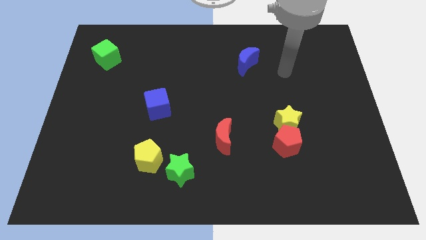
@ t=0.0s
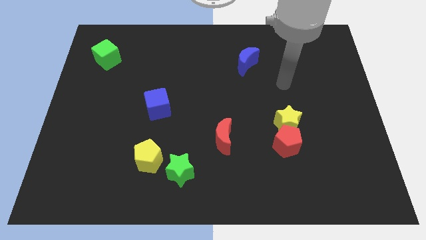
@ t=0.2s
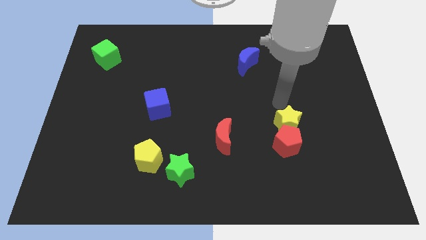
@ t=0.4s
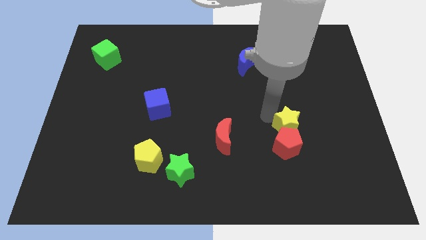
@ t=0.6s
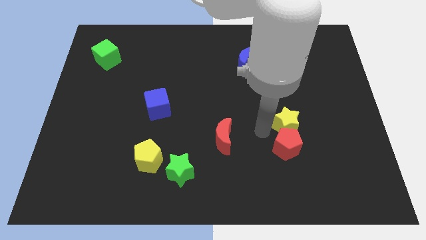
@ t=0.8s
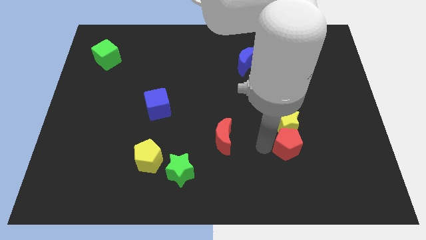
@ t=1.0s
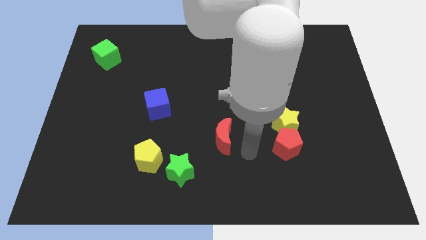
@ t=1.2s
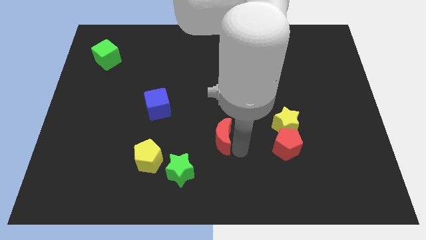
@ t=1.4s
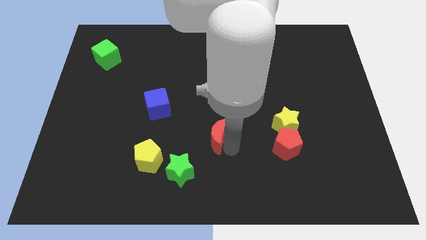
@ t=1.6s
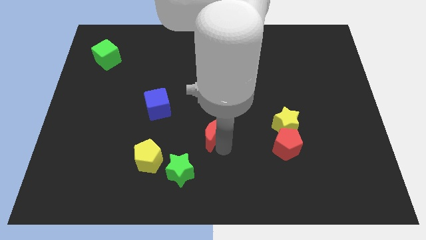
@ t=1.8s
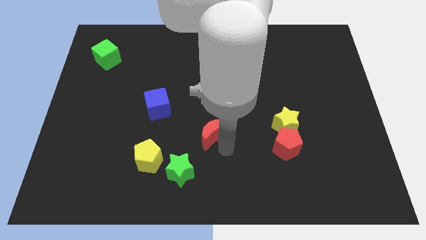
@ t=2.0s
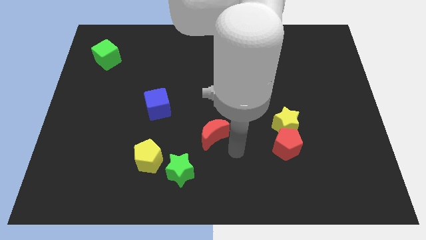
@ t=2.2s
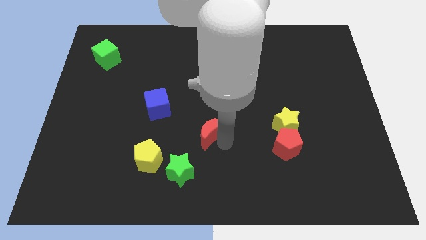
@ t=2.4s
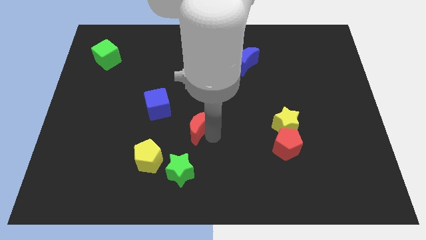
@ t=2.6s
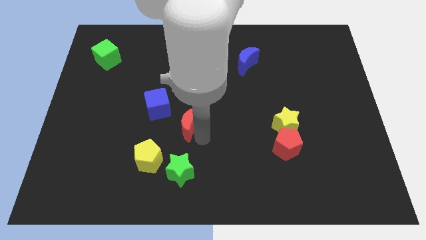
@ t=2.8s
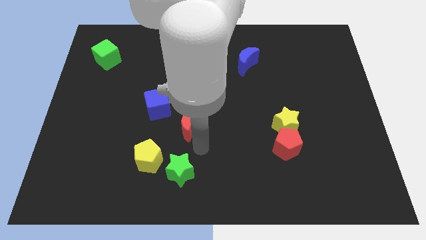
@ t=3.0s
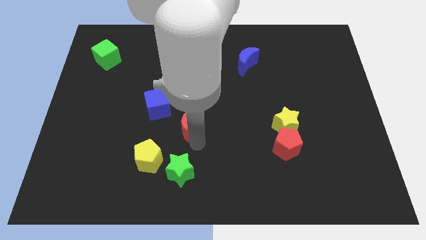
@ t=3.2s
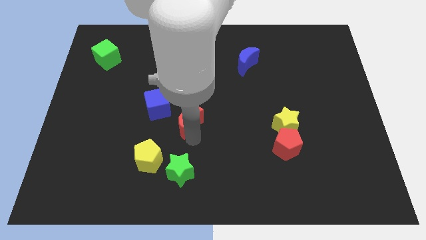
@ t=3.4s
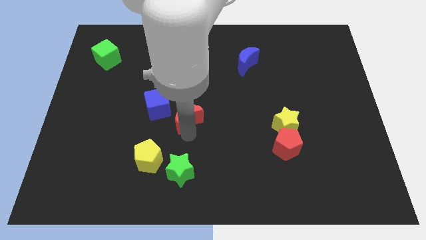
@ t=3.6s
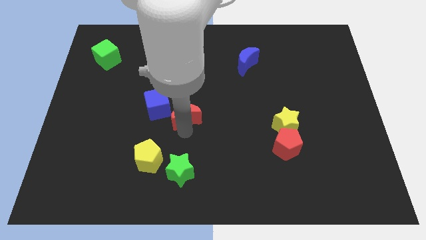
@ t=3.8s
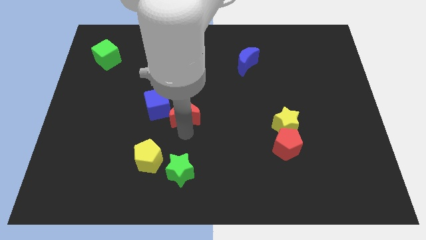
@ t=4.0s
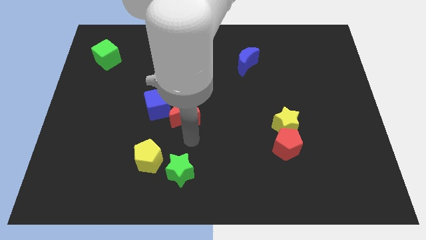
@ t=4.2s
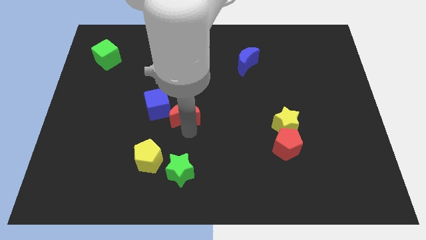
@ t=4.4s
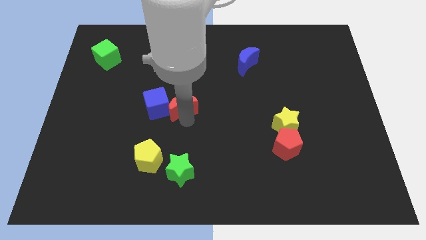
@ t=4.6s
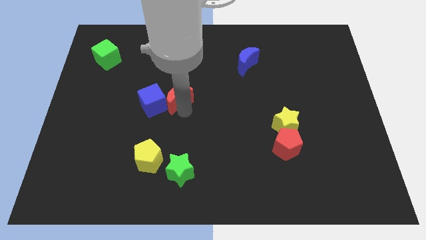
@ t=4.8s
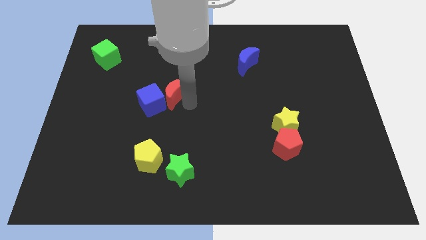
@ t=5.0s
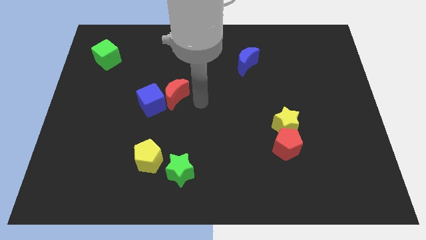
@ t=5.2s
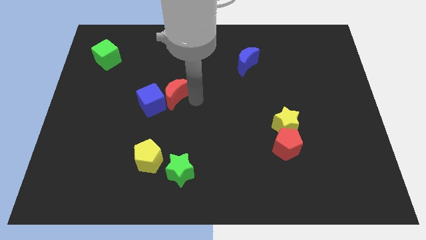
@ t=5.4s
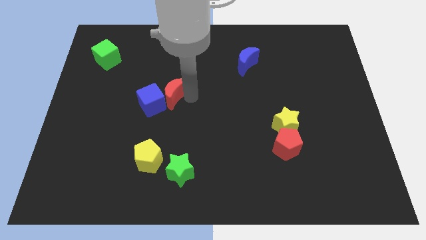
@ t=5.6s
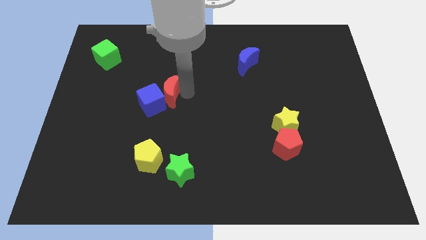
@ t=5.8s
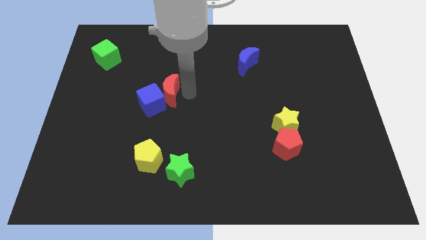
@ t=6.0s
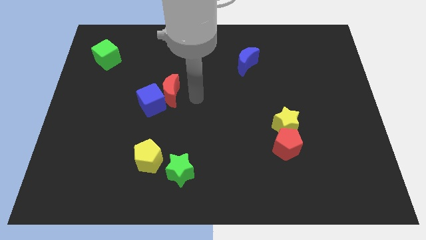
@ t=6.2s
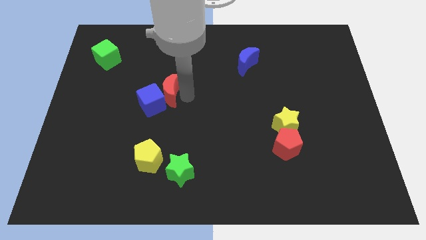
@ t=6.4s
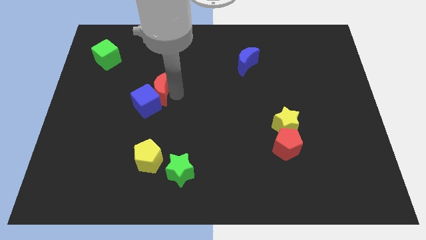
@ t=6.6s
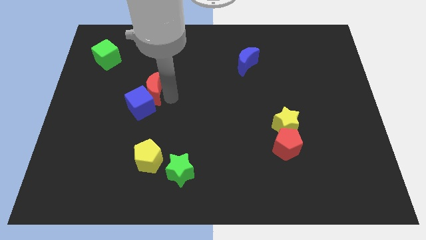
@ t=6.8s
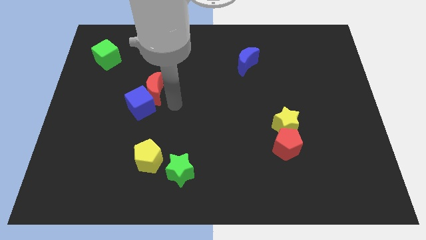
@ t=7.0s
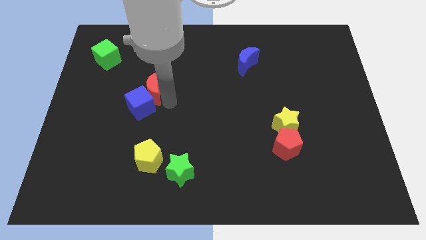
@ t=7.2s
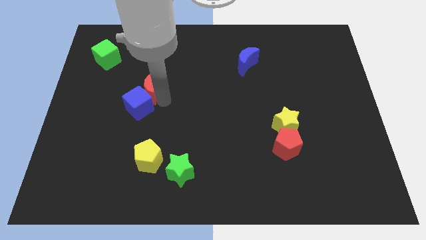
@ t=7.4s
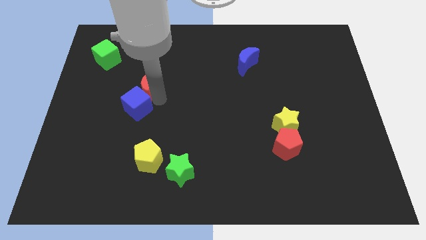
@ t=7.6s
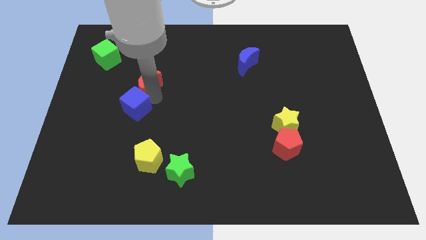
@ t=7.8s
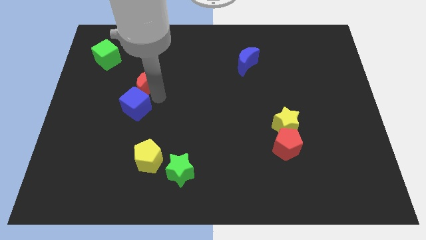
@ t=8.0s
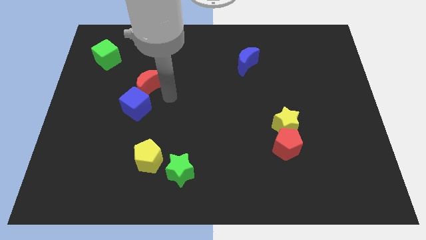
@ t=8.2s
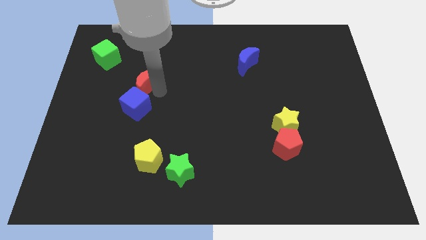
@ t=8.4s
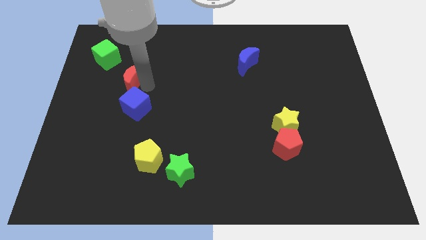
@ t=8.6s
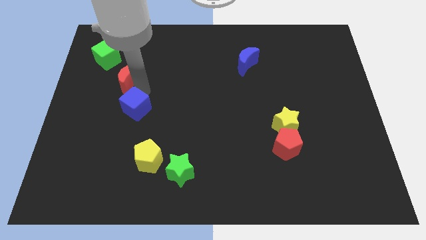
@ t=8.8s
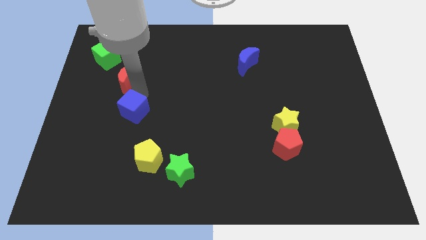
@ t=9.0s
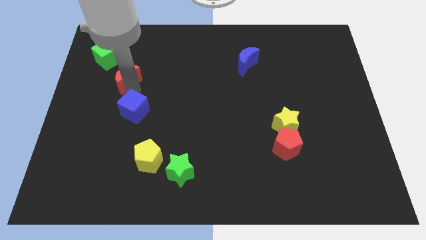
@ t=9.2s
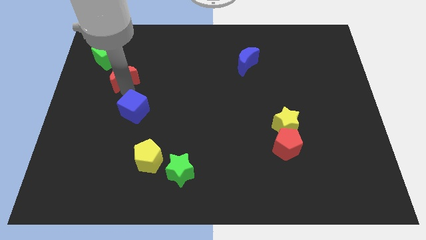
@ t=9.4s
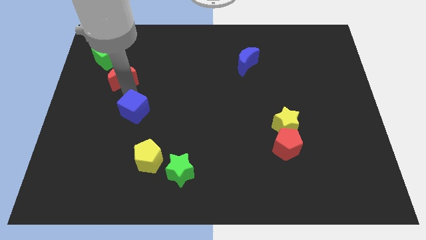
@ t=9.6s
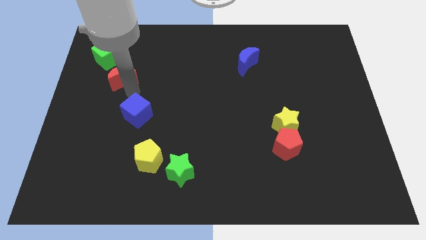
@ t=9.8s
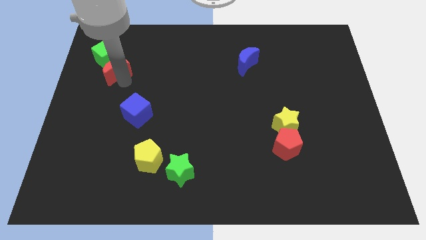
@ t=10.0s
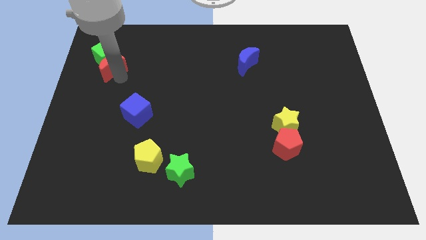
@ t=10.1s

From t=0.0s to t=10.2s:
move the red moon to the green cube

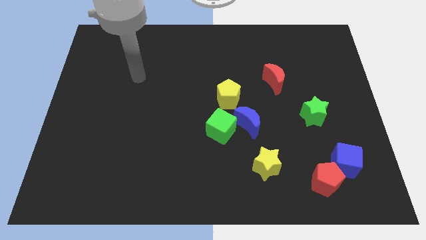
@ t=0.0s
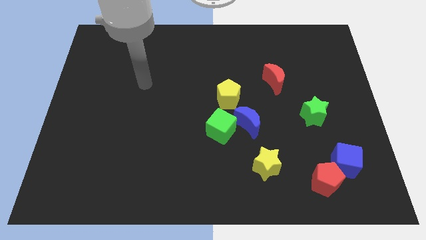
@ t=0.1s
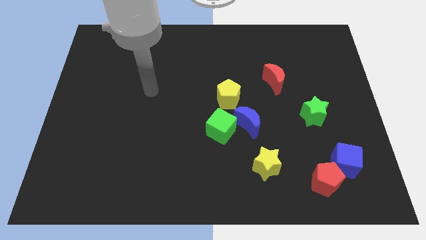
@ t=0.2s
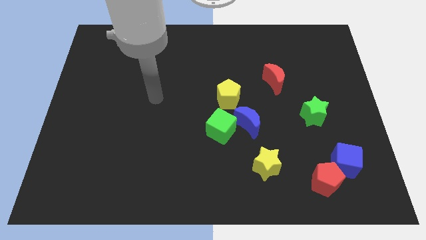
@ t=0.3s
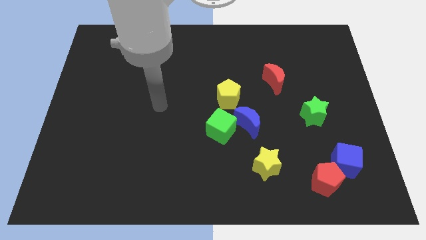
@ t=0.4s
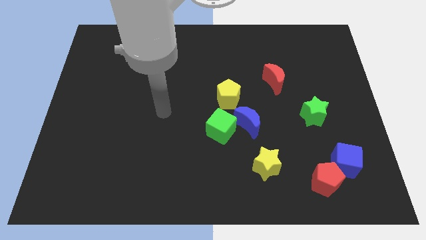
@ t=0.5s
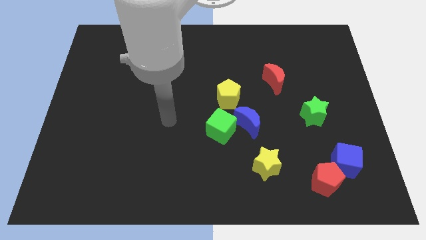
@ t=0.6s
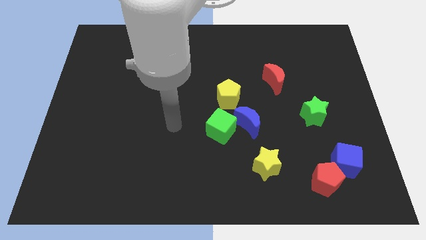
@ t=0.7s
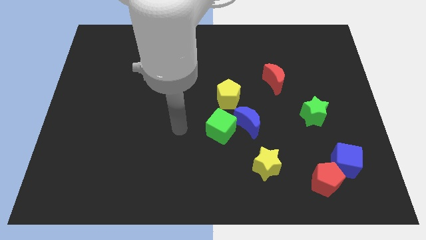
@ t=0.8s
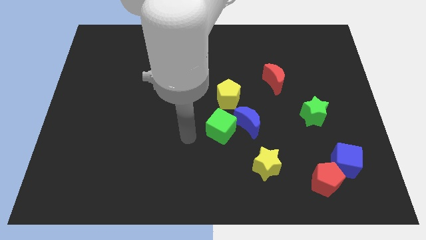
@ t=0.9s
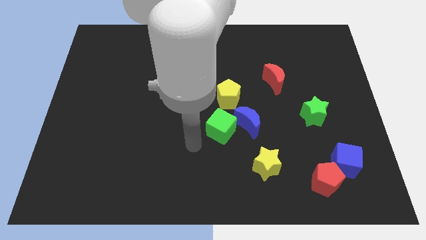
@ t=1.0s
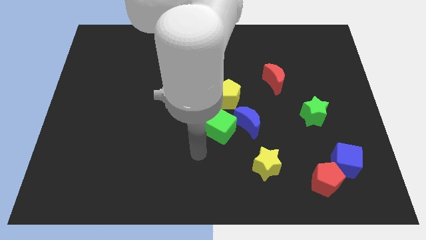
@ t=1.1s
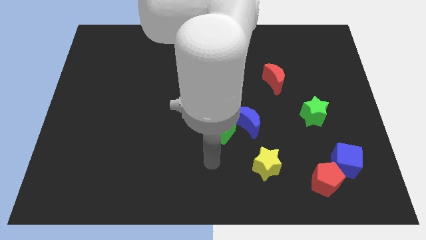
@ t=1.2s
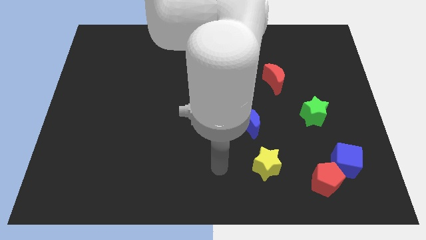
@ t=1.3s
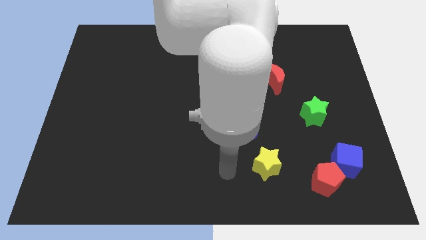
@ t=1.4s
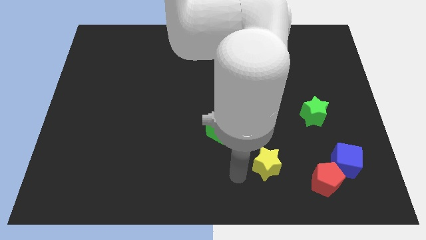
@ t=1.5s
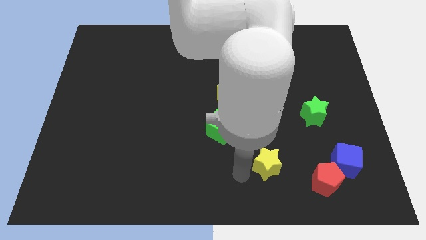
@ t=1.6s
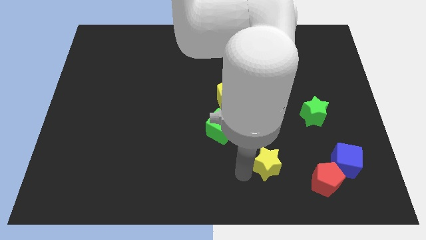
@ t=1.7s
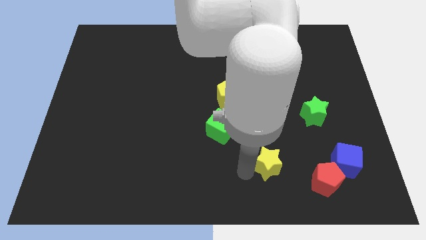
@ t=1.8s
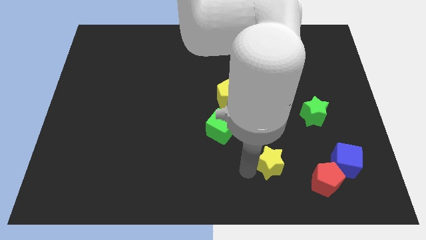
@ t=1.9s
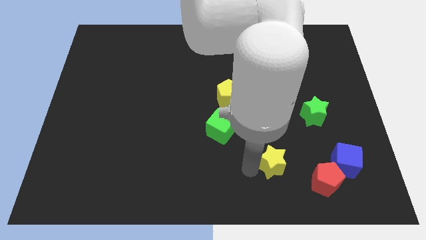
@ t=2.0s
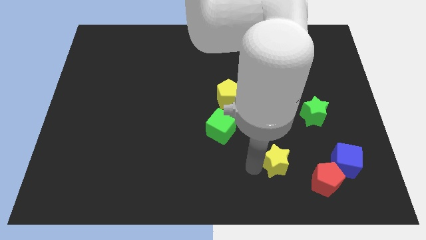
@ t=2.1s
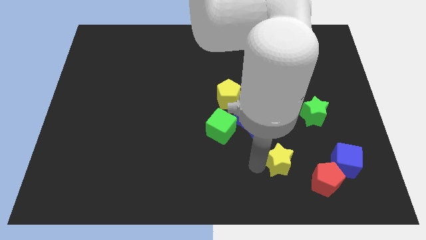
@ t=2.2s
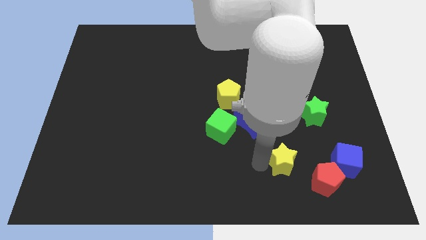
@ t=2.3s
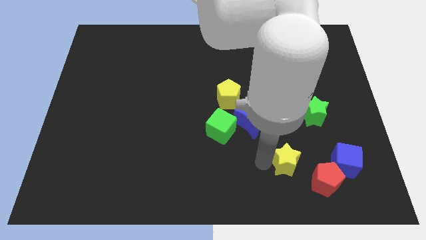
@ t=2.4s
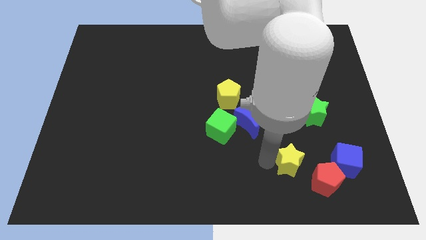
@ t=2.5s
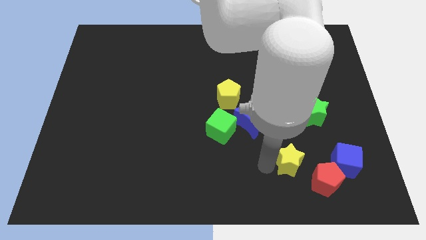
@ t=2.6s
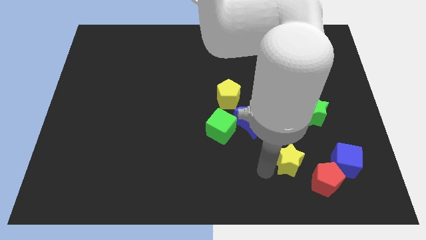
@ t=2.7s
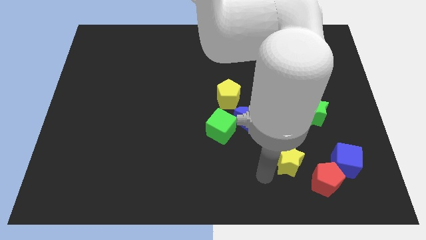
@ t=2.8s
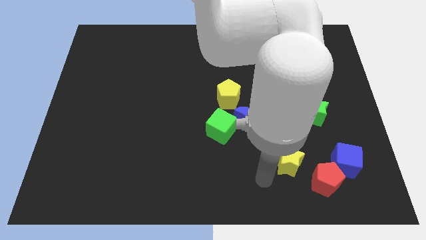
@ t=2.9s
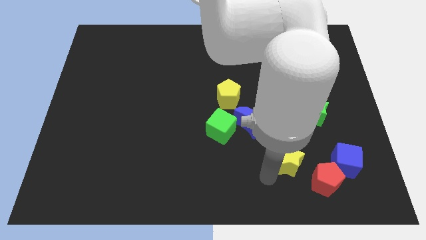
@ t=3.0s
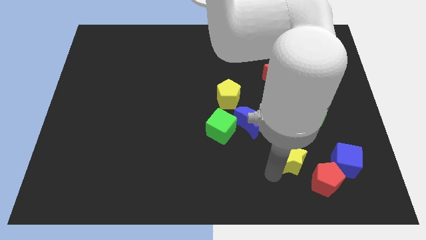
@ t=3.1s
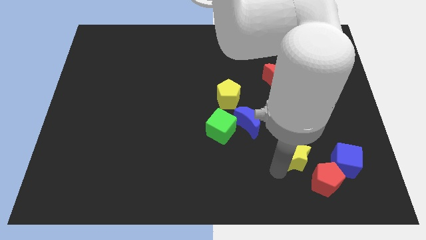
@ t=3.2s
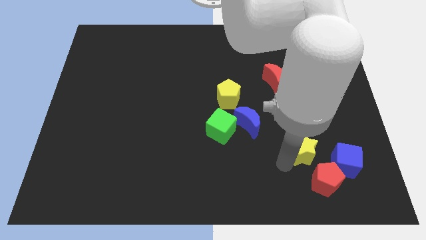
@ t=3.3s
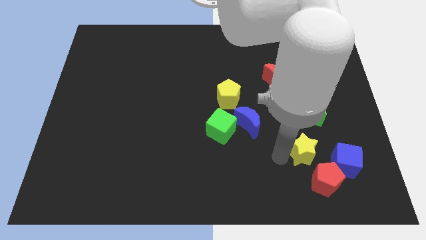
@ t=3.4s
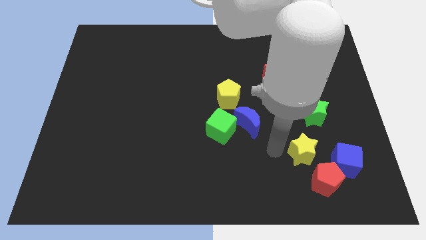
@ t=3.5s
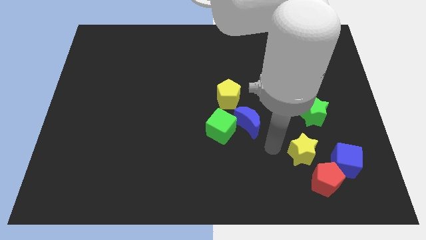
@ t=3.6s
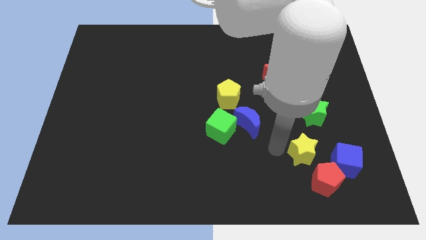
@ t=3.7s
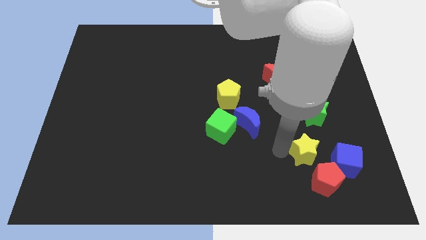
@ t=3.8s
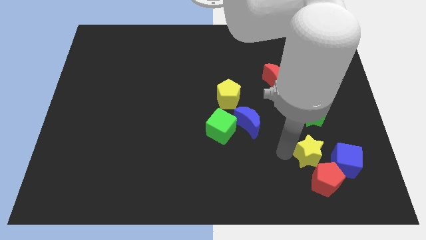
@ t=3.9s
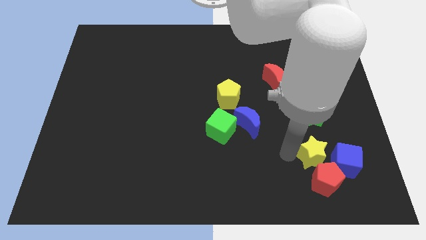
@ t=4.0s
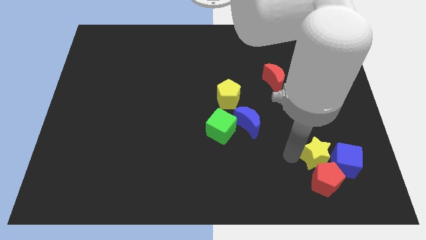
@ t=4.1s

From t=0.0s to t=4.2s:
put the yellow star close to the blue cube
